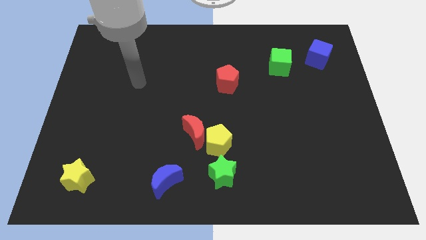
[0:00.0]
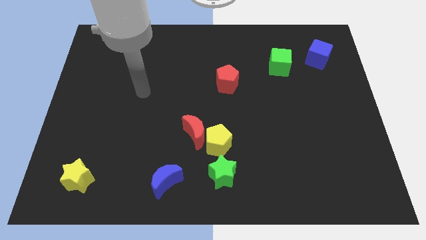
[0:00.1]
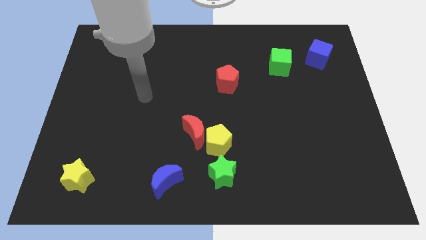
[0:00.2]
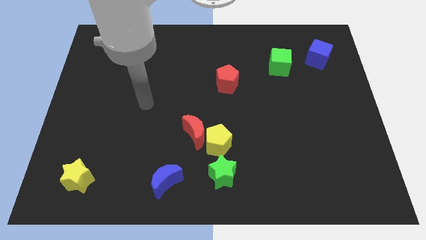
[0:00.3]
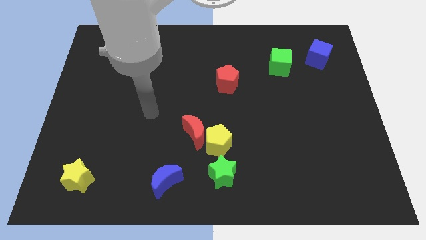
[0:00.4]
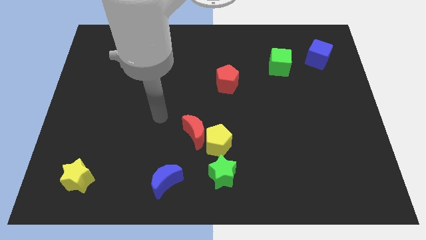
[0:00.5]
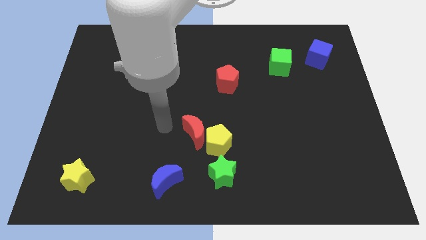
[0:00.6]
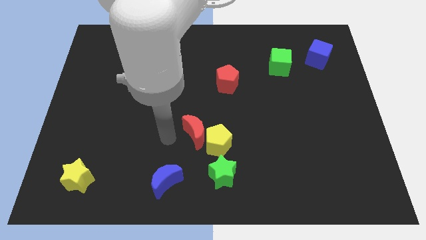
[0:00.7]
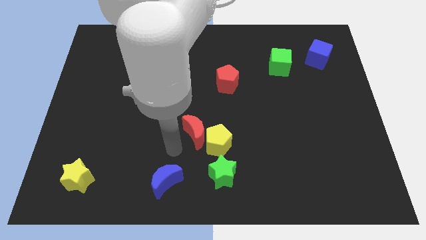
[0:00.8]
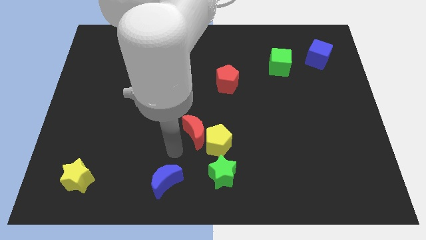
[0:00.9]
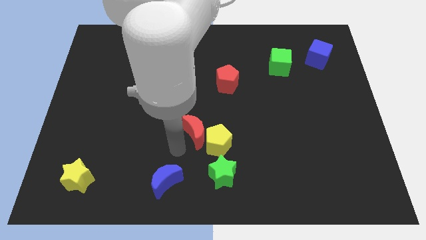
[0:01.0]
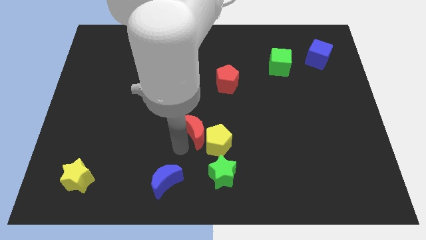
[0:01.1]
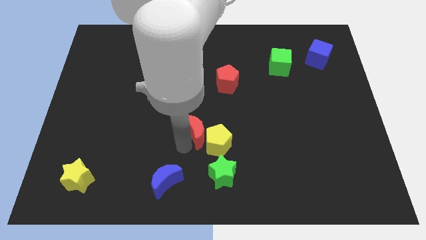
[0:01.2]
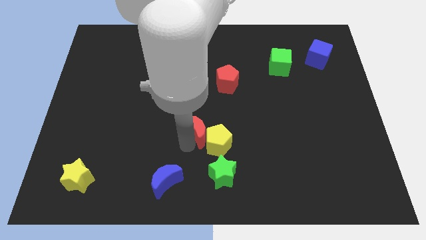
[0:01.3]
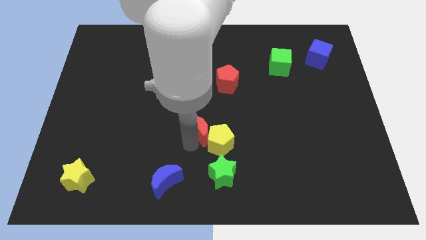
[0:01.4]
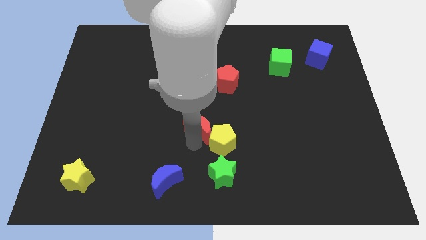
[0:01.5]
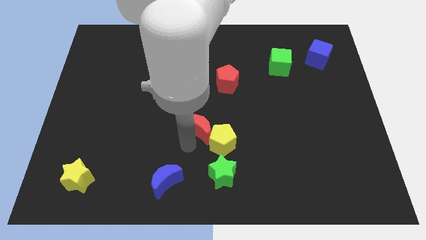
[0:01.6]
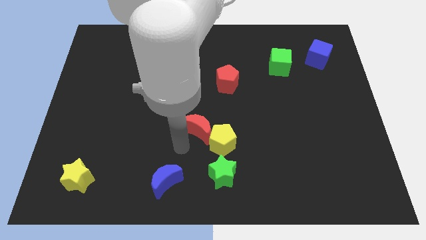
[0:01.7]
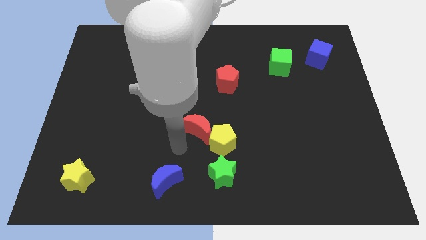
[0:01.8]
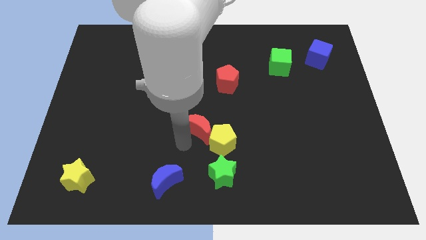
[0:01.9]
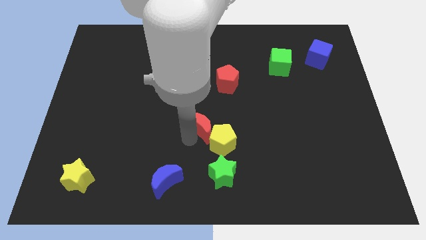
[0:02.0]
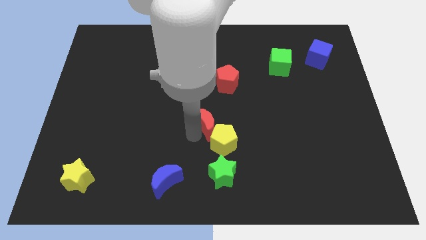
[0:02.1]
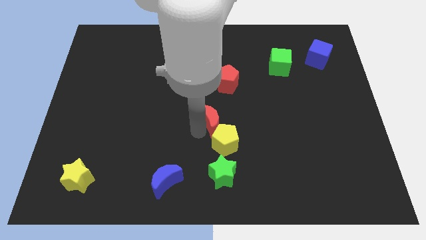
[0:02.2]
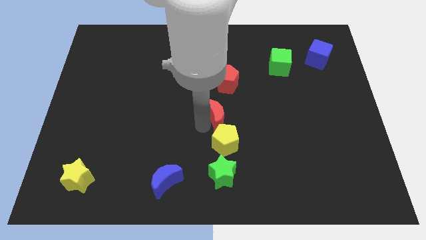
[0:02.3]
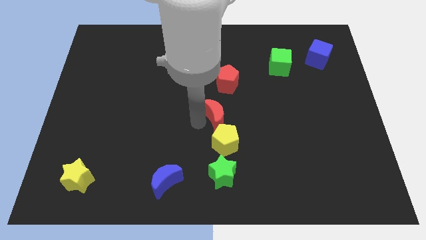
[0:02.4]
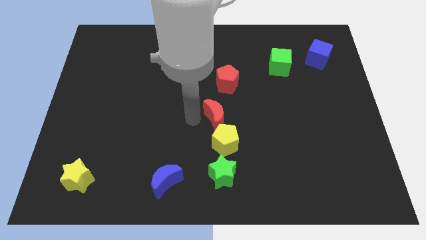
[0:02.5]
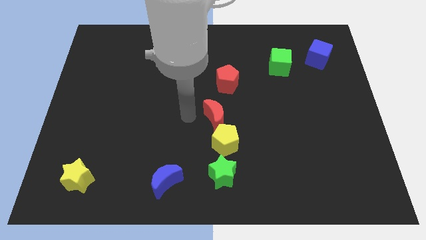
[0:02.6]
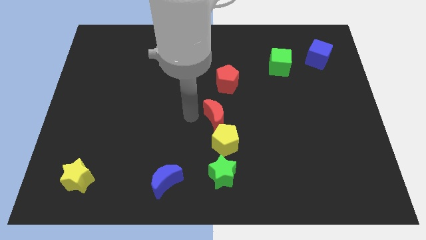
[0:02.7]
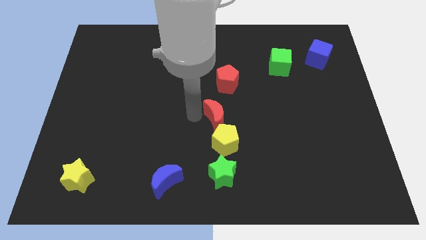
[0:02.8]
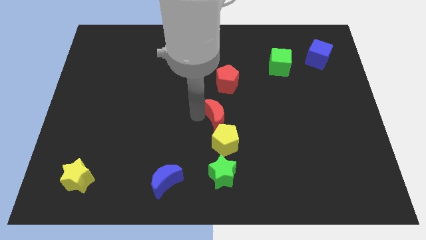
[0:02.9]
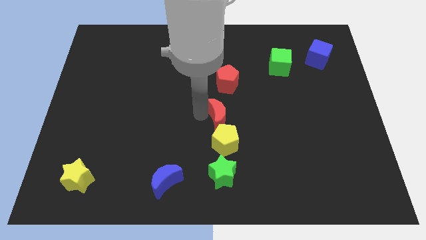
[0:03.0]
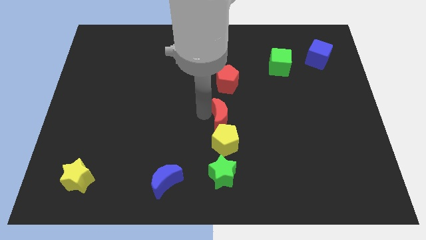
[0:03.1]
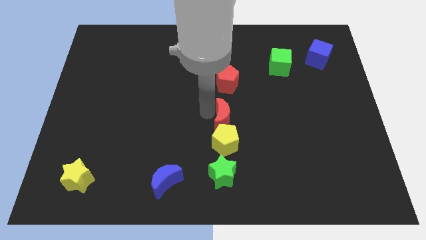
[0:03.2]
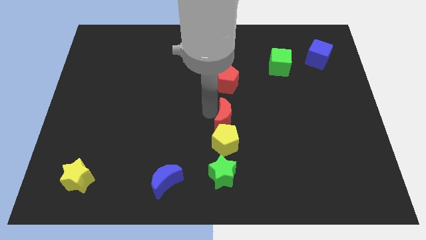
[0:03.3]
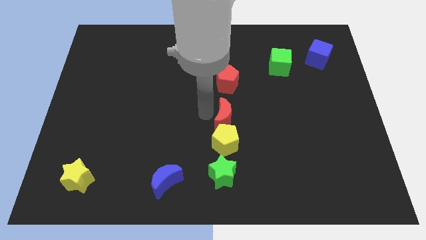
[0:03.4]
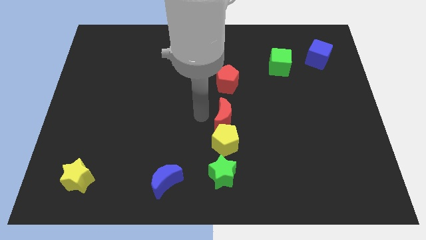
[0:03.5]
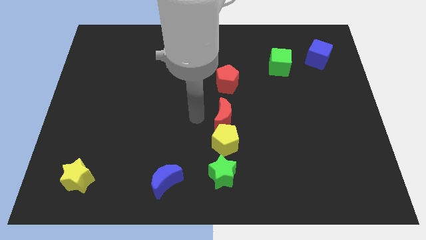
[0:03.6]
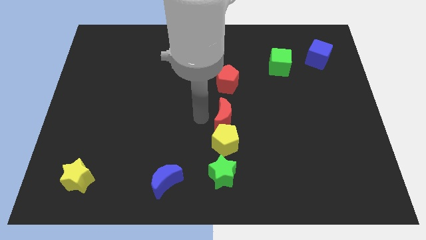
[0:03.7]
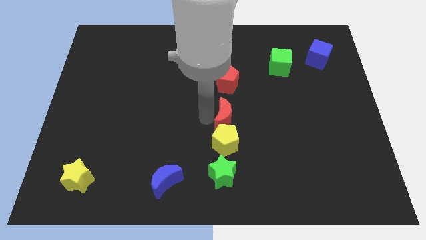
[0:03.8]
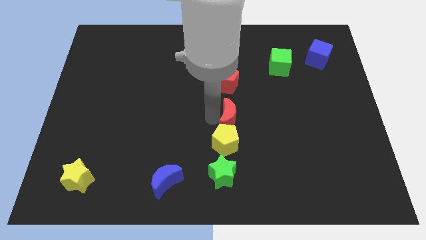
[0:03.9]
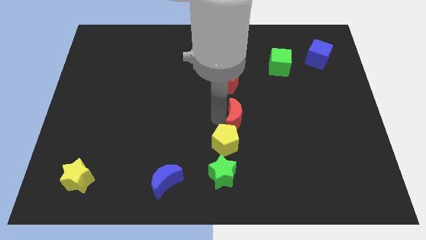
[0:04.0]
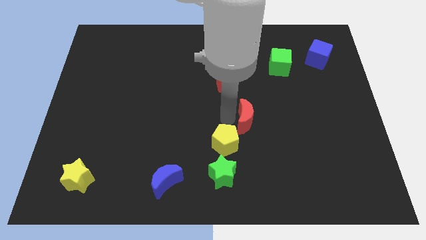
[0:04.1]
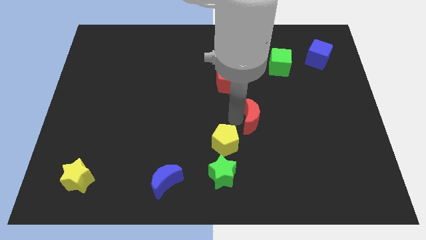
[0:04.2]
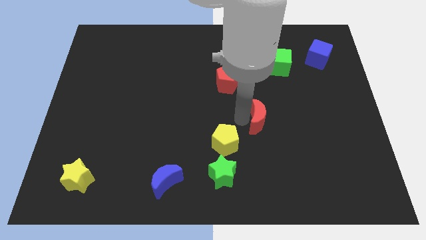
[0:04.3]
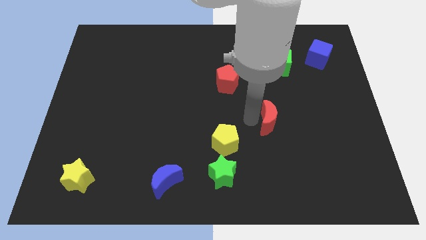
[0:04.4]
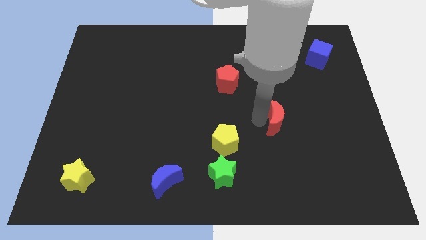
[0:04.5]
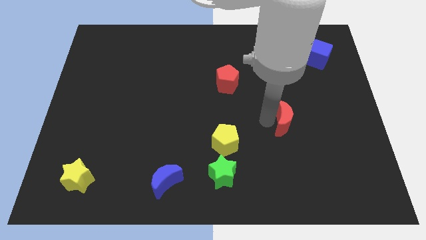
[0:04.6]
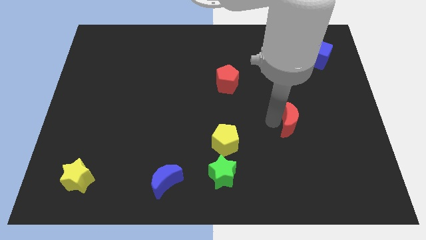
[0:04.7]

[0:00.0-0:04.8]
move the red moon to the right

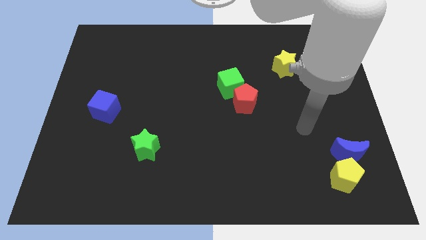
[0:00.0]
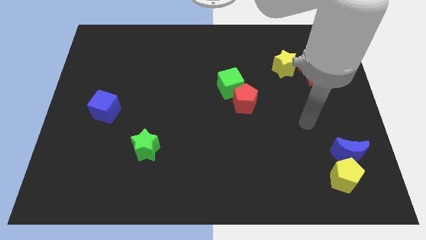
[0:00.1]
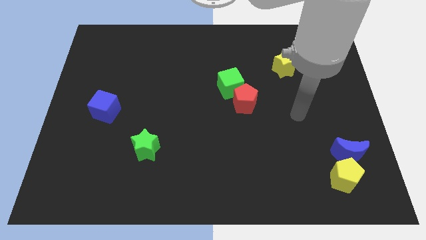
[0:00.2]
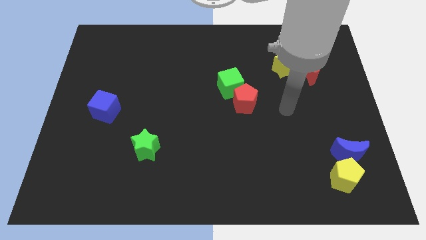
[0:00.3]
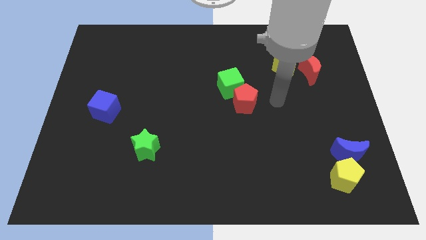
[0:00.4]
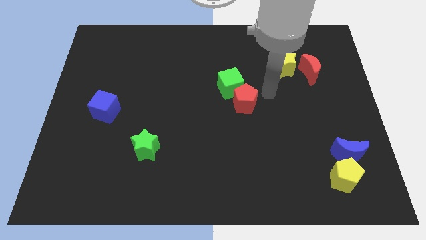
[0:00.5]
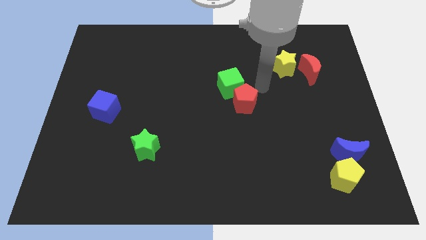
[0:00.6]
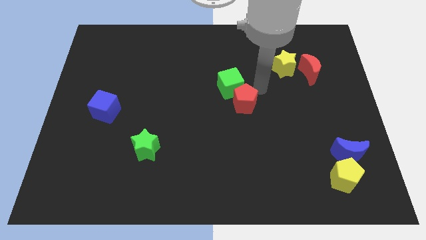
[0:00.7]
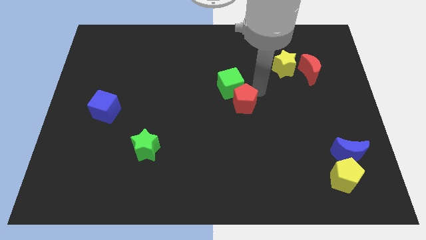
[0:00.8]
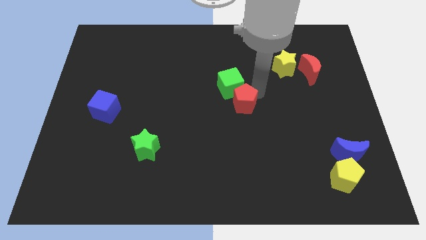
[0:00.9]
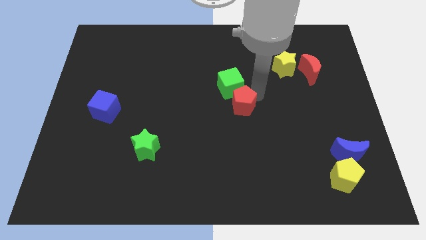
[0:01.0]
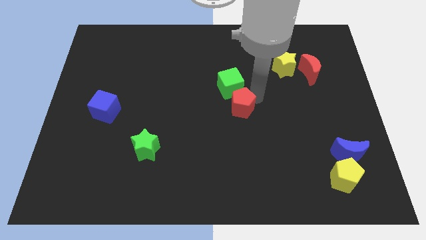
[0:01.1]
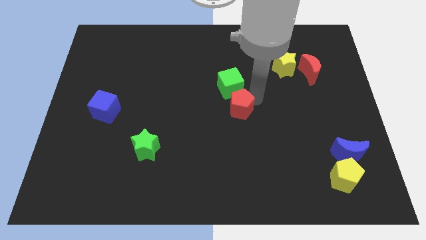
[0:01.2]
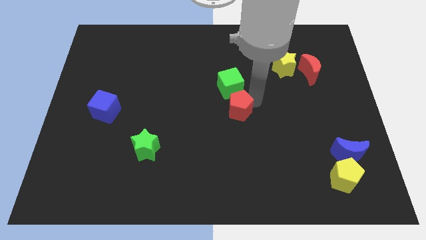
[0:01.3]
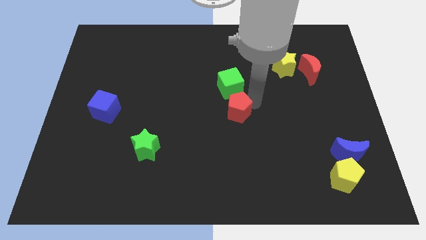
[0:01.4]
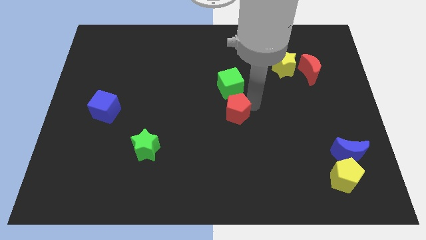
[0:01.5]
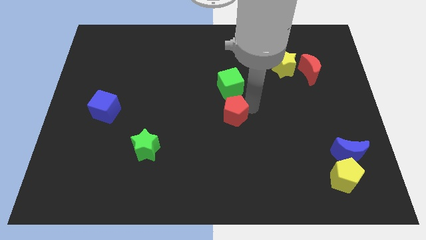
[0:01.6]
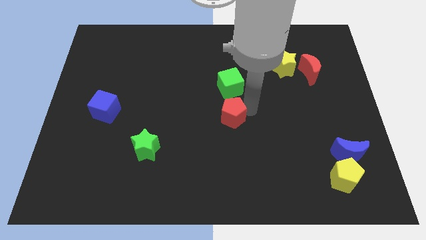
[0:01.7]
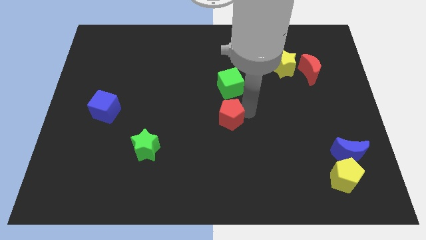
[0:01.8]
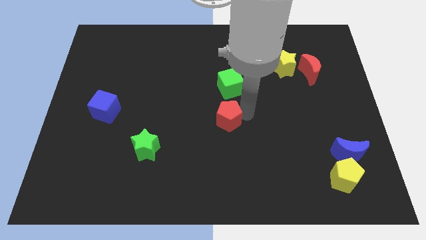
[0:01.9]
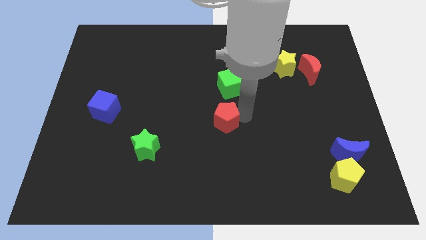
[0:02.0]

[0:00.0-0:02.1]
slightly slide the red pentagon down and then left

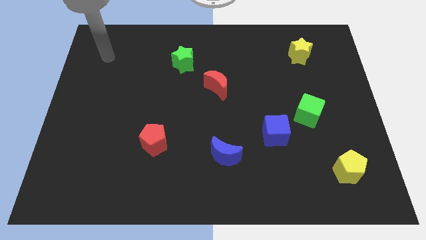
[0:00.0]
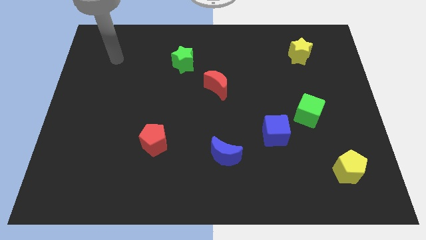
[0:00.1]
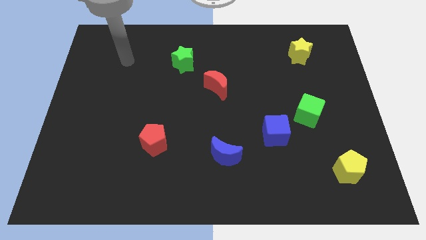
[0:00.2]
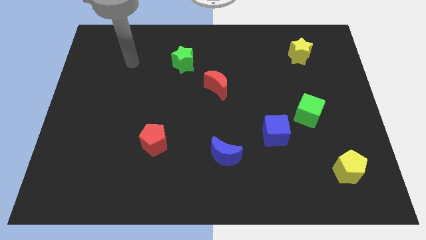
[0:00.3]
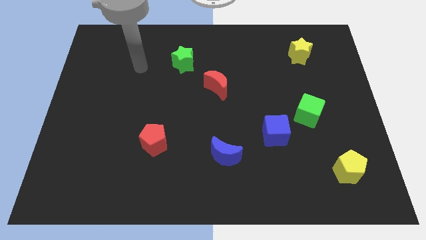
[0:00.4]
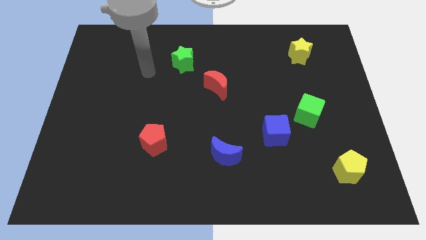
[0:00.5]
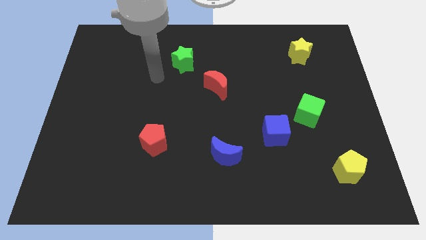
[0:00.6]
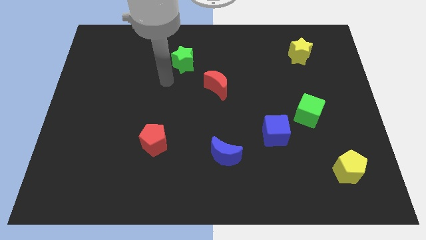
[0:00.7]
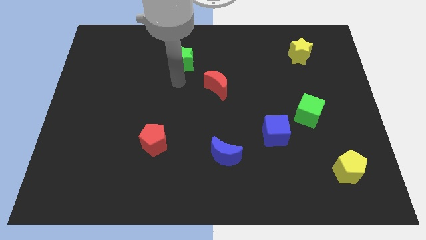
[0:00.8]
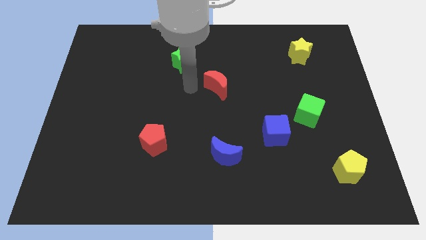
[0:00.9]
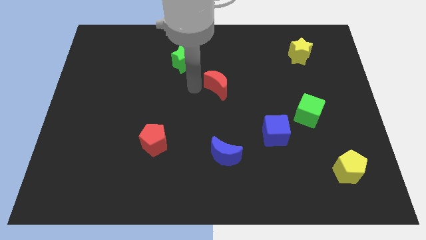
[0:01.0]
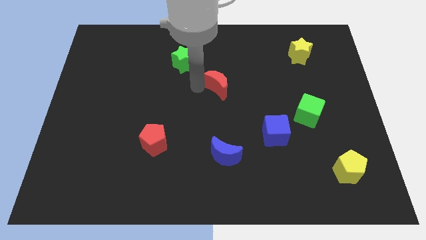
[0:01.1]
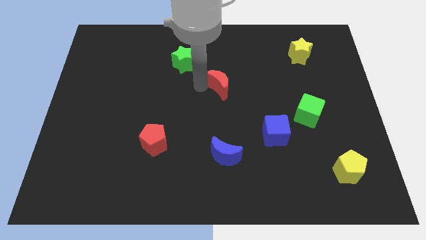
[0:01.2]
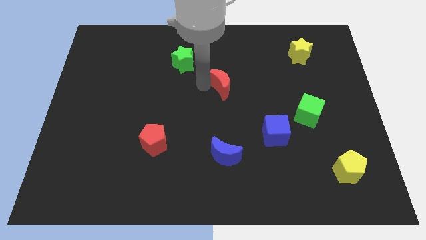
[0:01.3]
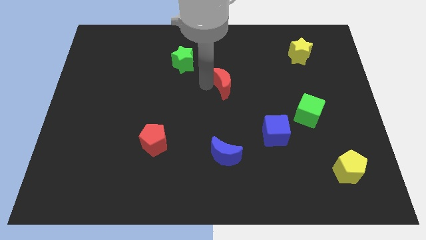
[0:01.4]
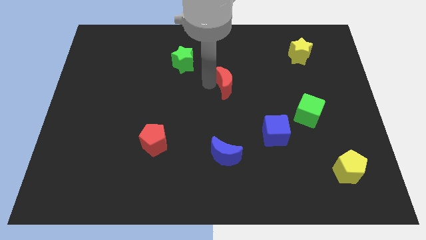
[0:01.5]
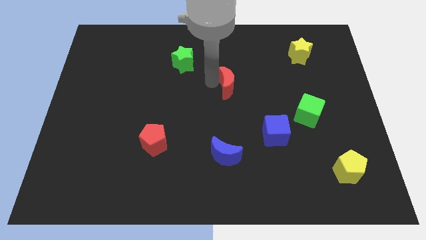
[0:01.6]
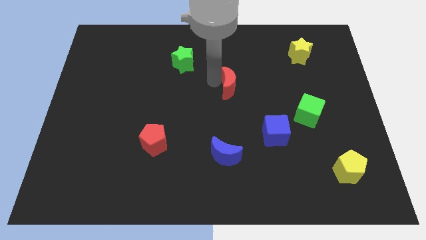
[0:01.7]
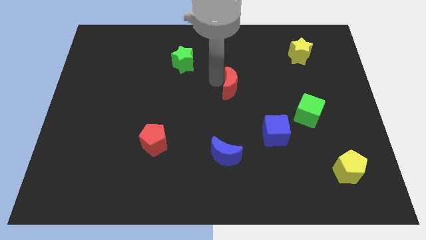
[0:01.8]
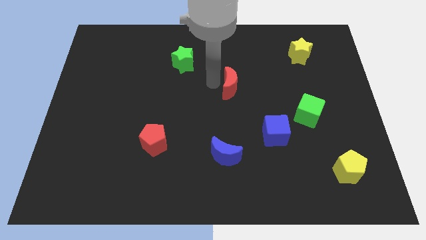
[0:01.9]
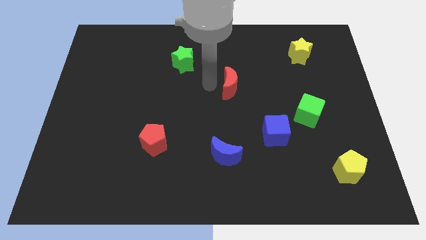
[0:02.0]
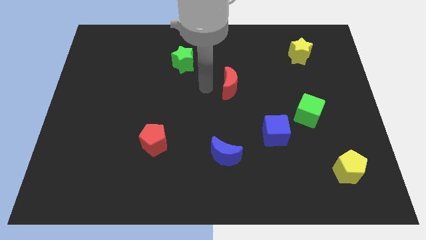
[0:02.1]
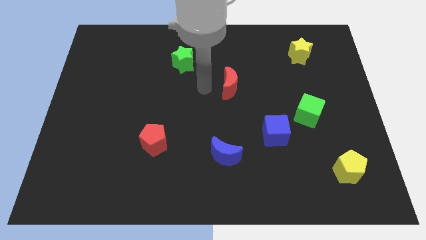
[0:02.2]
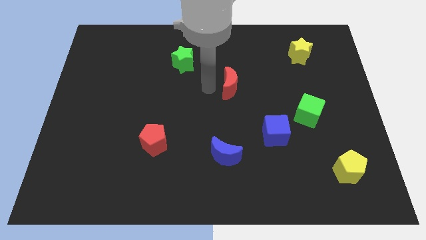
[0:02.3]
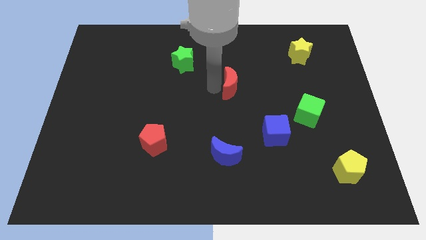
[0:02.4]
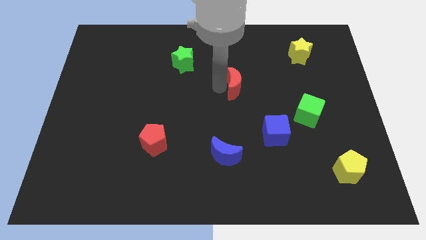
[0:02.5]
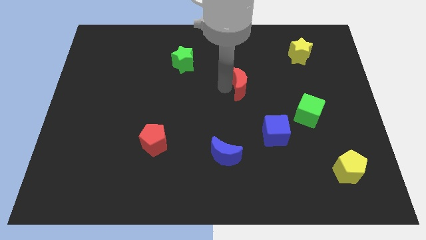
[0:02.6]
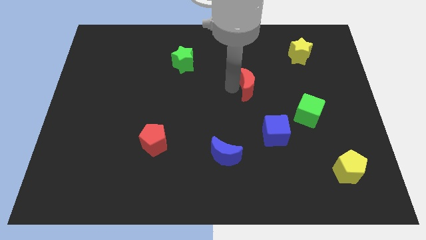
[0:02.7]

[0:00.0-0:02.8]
push the red moon to the right slightly
